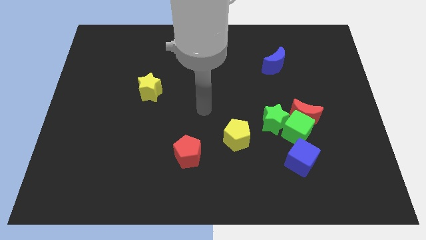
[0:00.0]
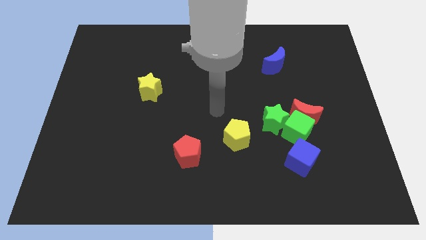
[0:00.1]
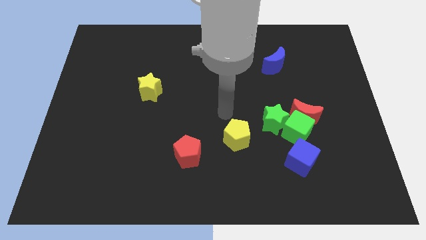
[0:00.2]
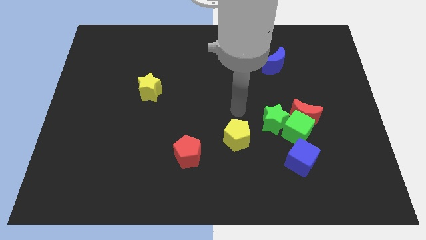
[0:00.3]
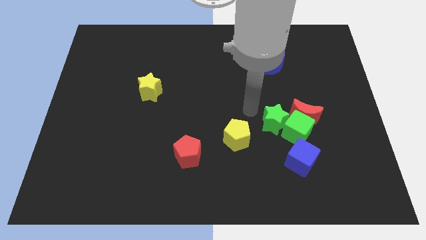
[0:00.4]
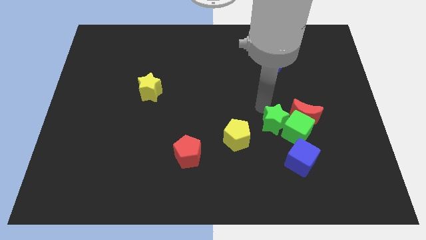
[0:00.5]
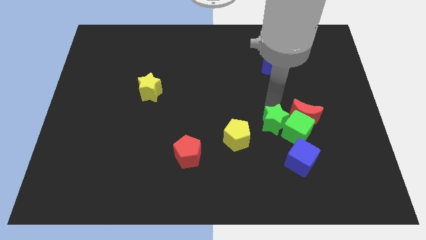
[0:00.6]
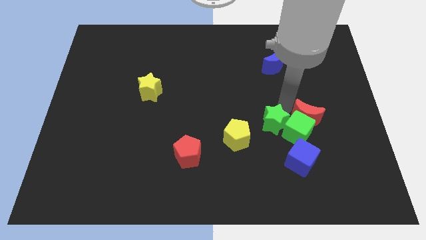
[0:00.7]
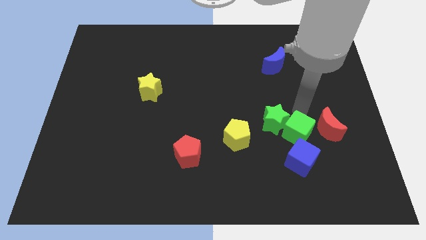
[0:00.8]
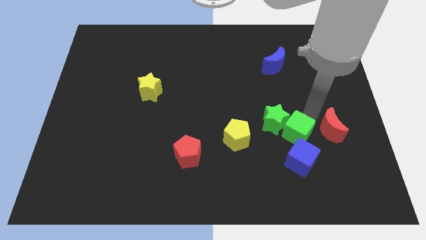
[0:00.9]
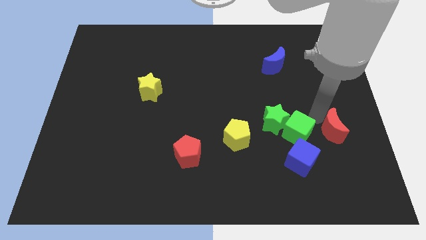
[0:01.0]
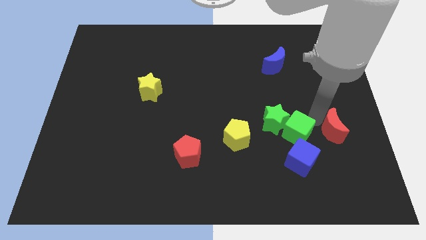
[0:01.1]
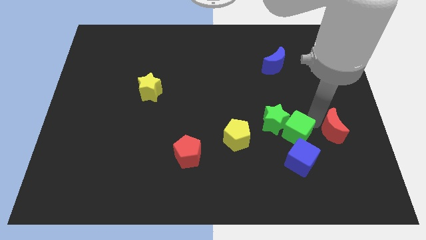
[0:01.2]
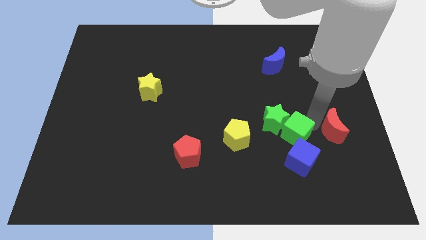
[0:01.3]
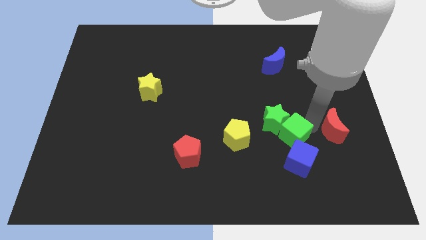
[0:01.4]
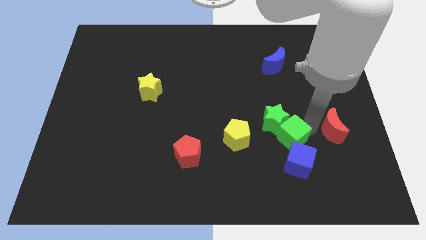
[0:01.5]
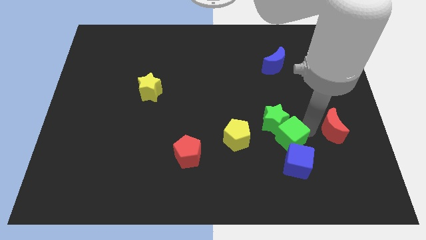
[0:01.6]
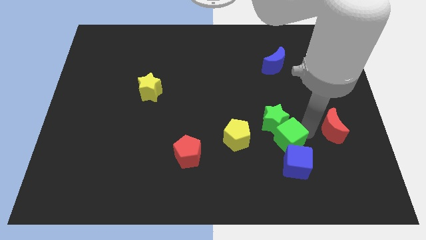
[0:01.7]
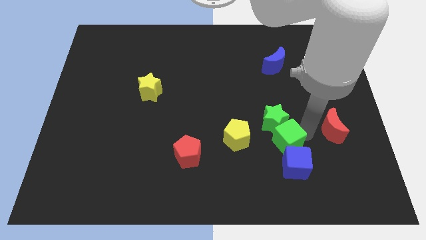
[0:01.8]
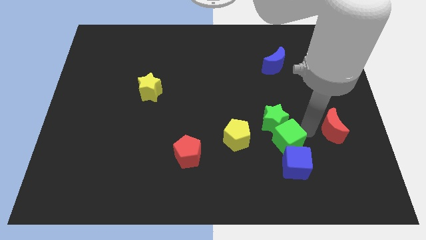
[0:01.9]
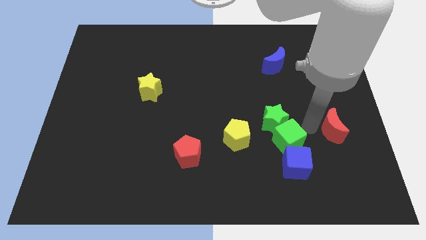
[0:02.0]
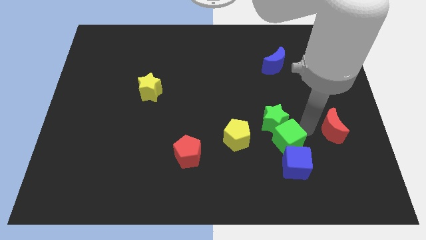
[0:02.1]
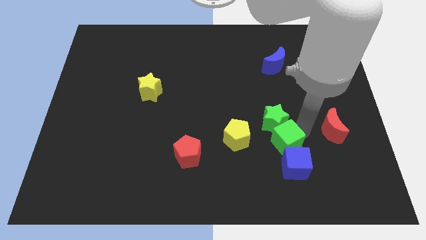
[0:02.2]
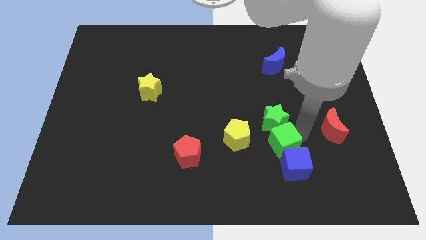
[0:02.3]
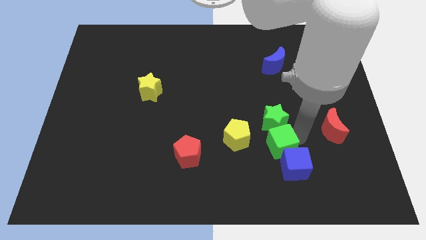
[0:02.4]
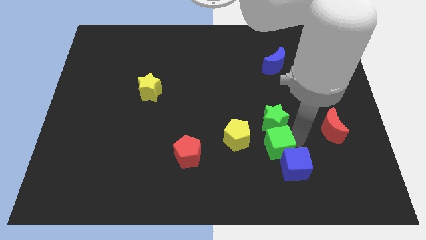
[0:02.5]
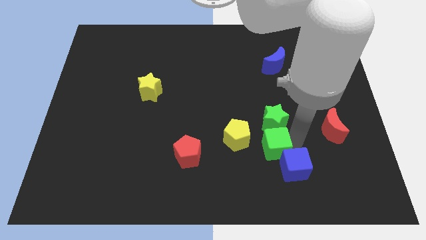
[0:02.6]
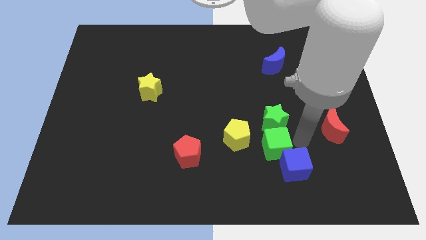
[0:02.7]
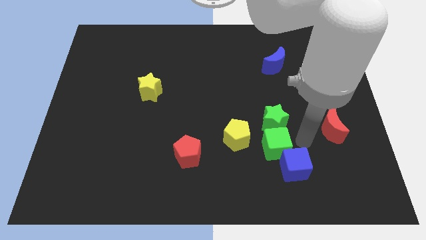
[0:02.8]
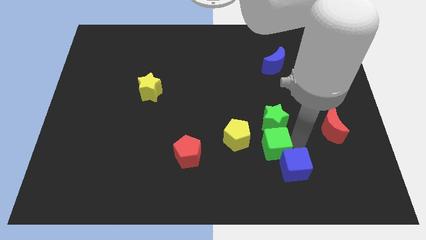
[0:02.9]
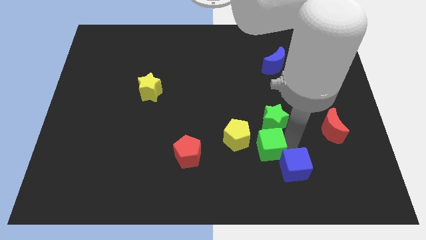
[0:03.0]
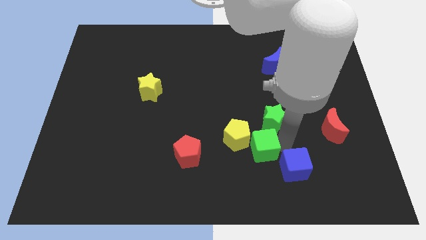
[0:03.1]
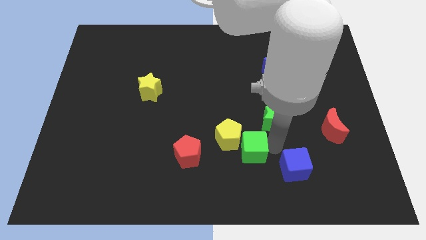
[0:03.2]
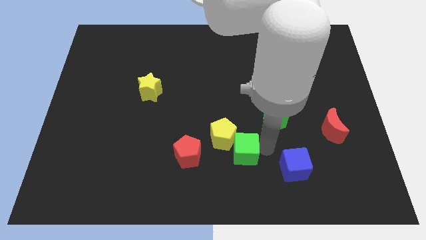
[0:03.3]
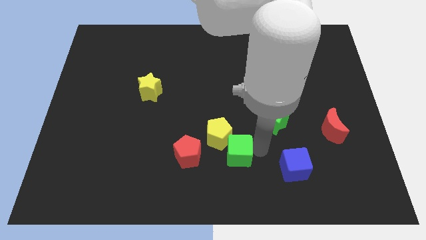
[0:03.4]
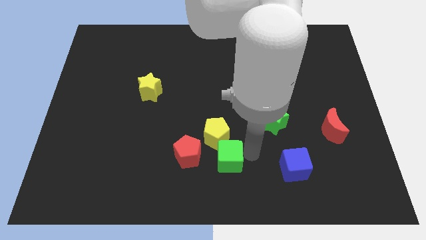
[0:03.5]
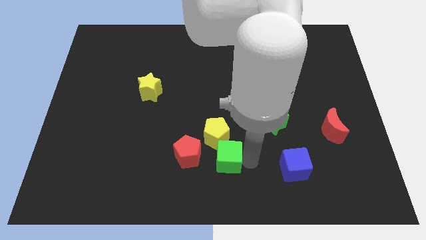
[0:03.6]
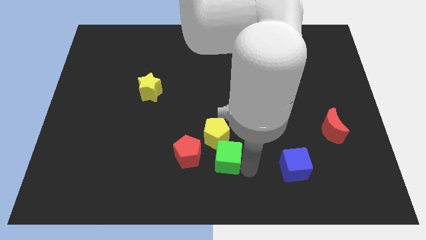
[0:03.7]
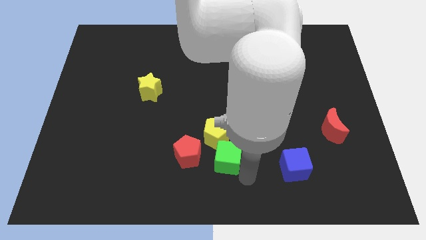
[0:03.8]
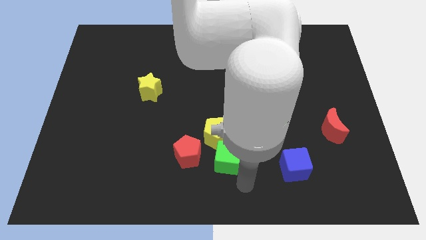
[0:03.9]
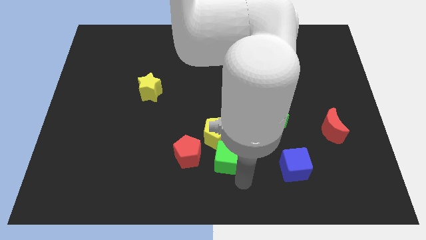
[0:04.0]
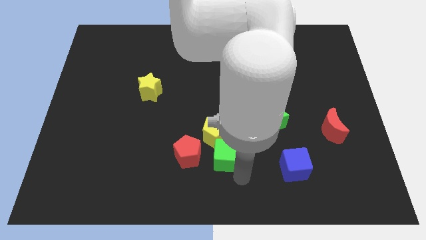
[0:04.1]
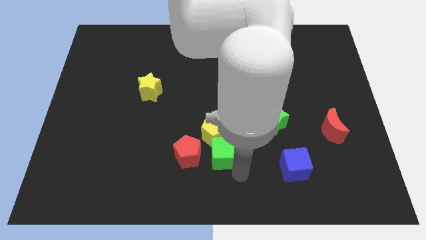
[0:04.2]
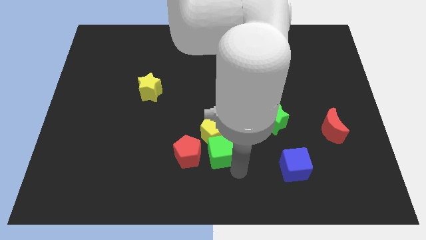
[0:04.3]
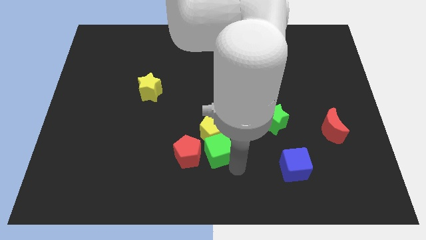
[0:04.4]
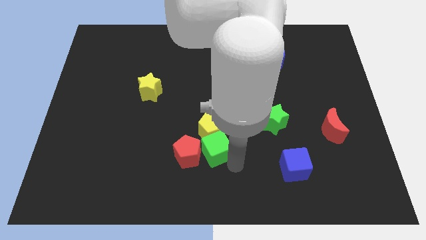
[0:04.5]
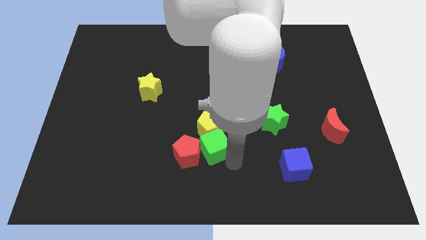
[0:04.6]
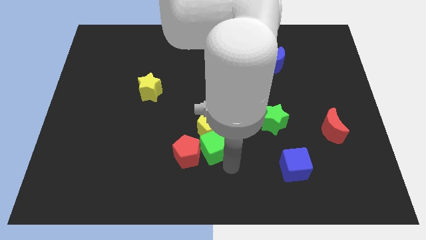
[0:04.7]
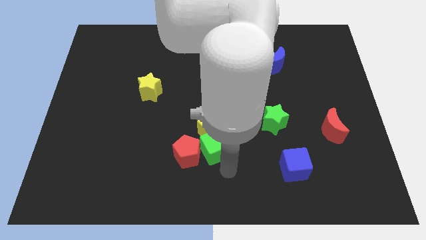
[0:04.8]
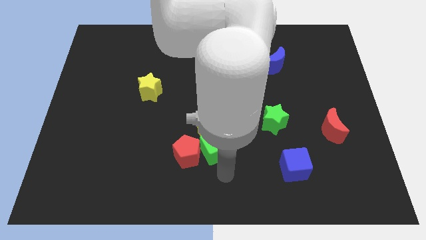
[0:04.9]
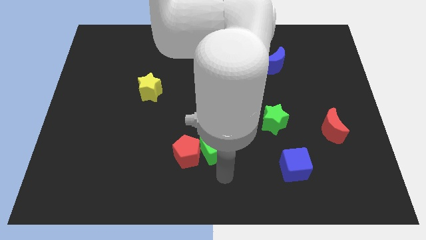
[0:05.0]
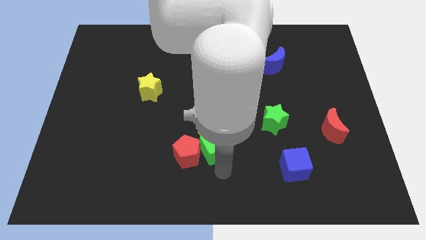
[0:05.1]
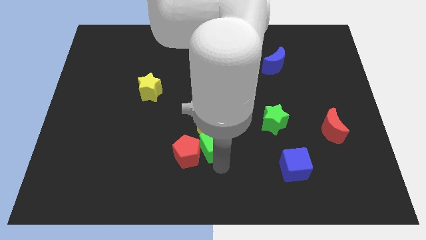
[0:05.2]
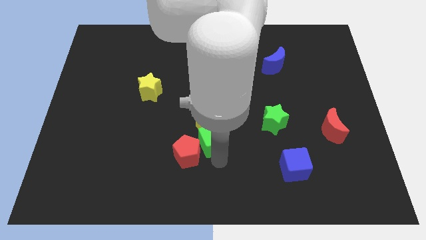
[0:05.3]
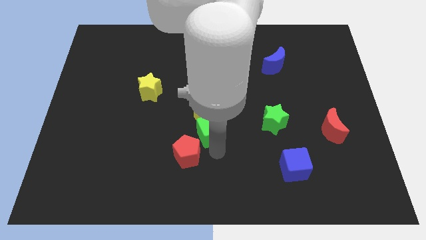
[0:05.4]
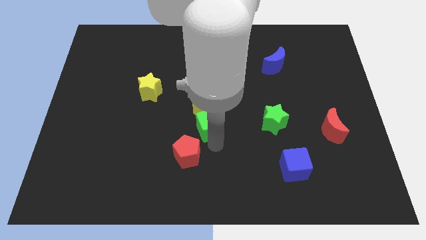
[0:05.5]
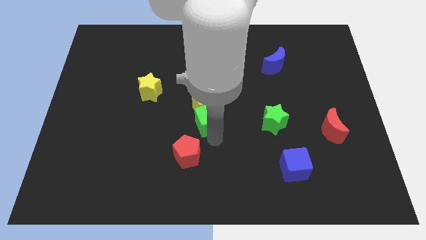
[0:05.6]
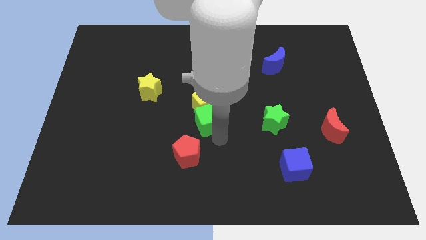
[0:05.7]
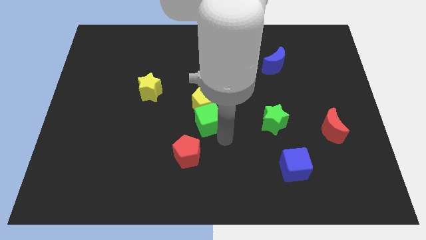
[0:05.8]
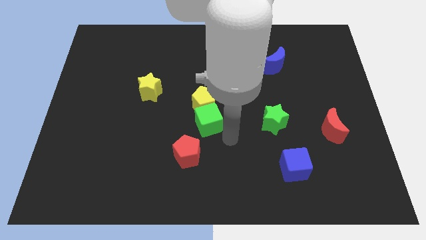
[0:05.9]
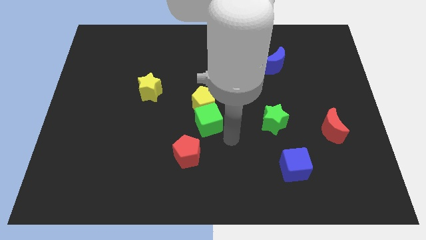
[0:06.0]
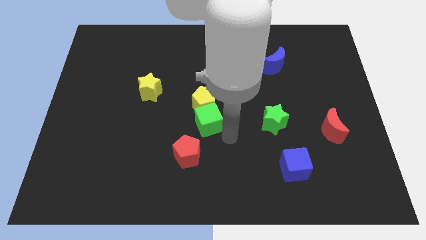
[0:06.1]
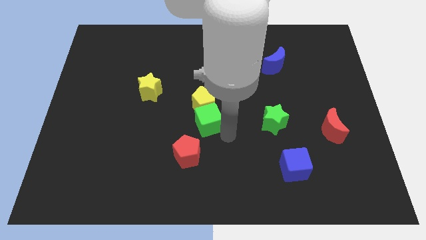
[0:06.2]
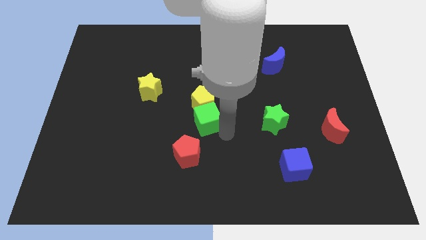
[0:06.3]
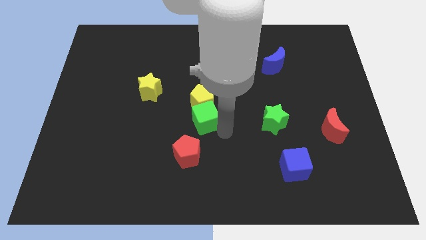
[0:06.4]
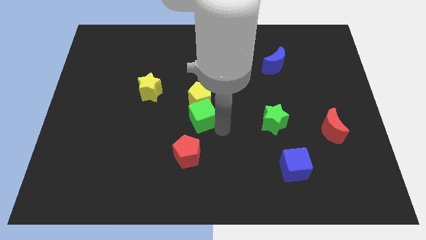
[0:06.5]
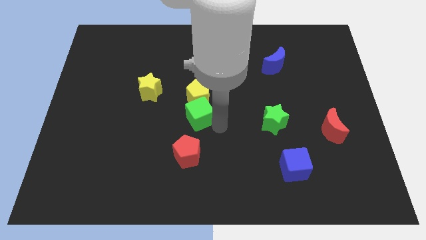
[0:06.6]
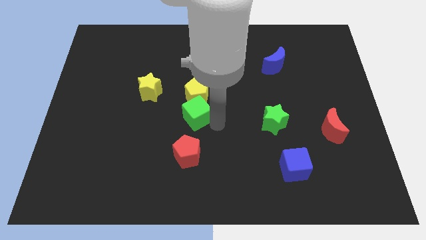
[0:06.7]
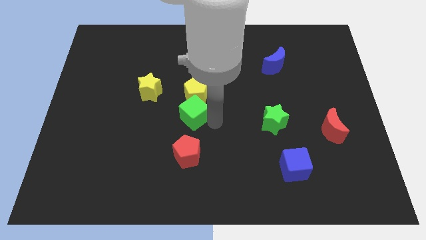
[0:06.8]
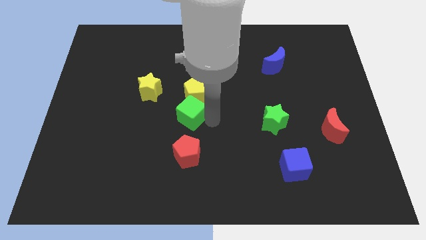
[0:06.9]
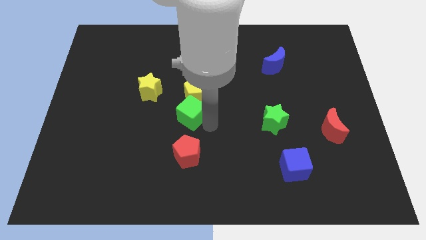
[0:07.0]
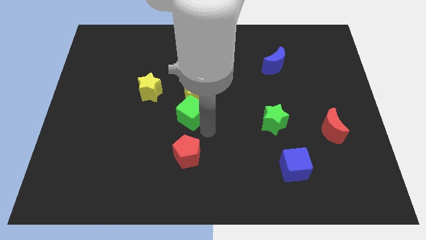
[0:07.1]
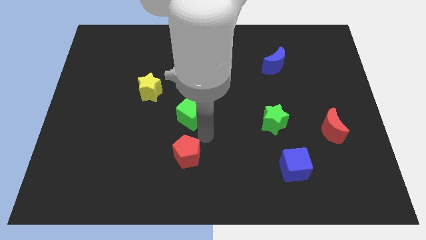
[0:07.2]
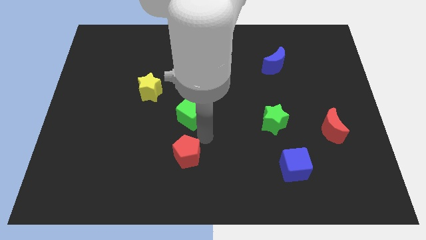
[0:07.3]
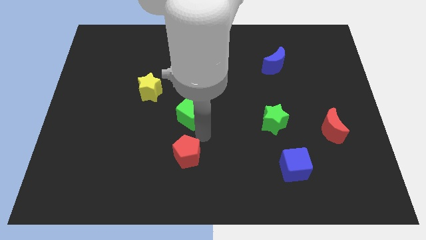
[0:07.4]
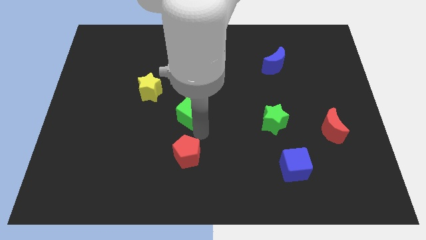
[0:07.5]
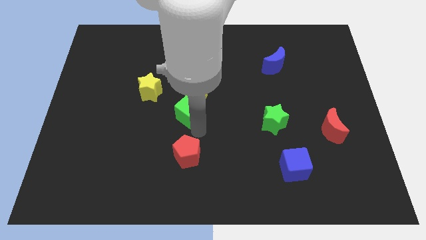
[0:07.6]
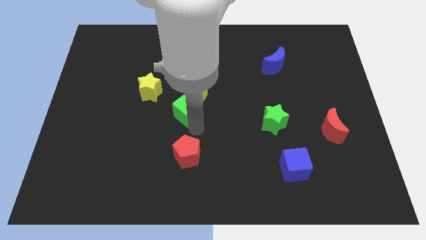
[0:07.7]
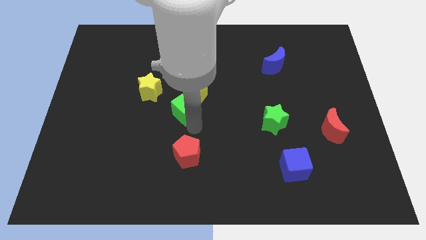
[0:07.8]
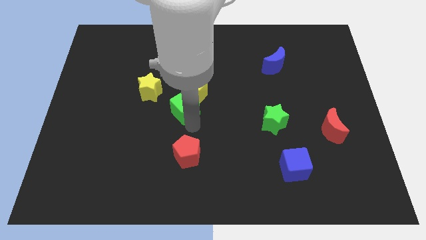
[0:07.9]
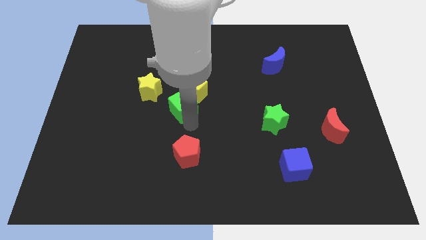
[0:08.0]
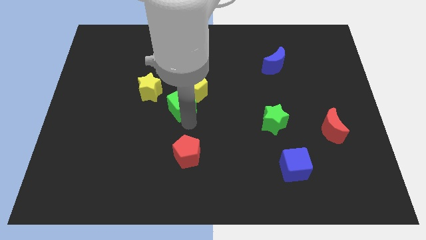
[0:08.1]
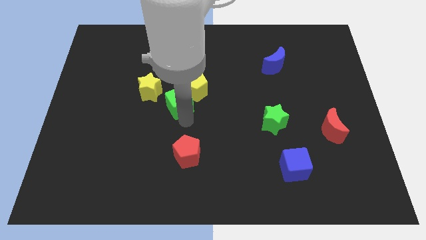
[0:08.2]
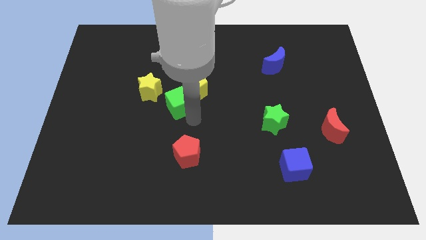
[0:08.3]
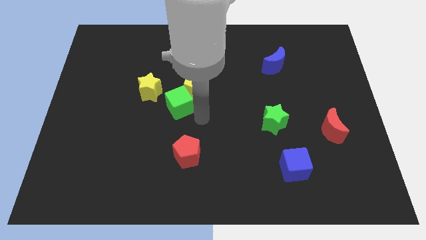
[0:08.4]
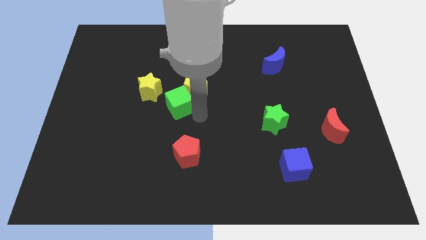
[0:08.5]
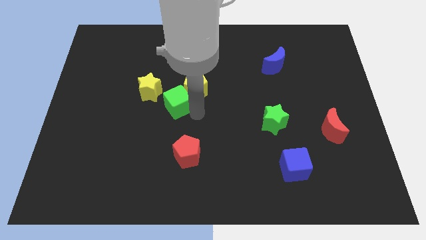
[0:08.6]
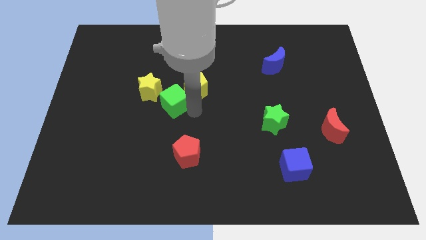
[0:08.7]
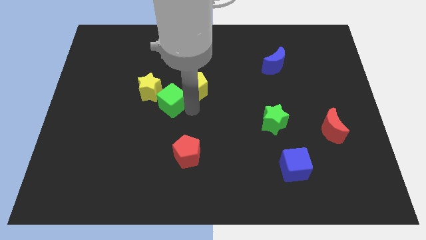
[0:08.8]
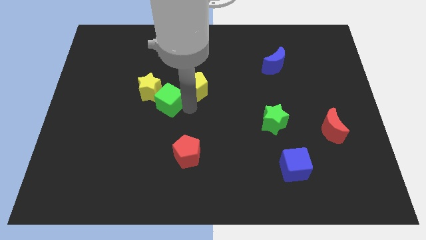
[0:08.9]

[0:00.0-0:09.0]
move the green cube towards the yellow star
